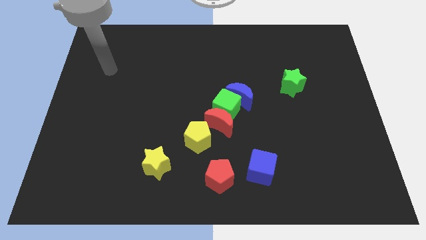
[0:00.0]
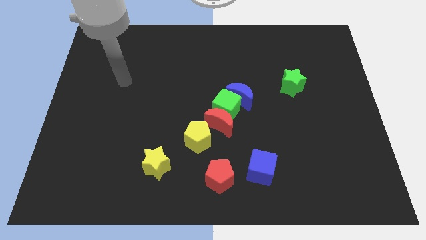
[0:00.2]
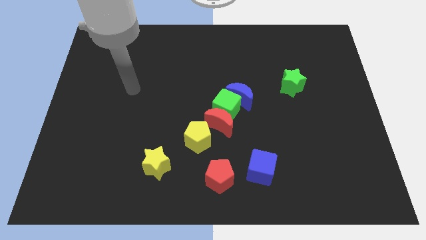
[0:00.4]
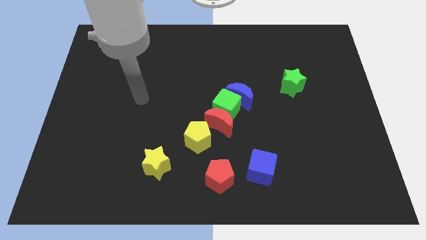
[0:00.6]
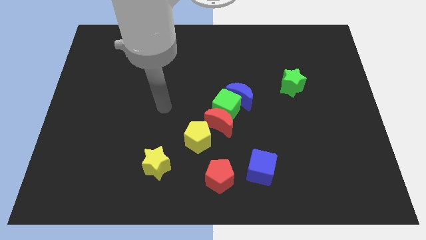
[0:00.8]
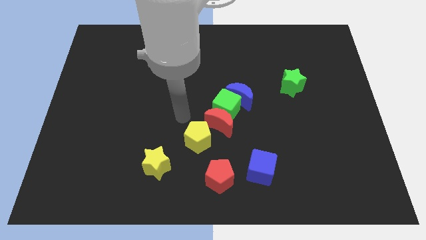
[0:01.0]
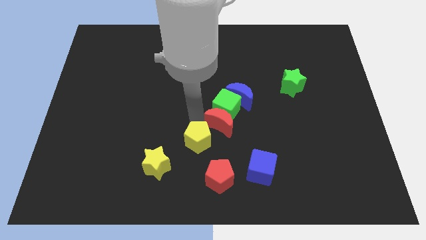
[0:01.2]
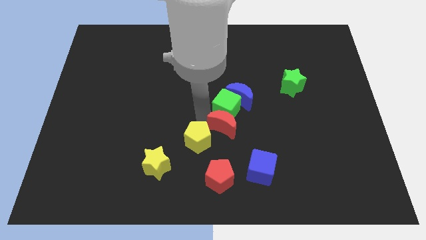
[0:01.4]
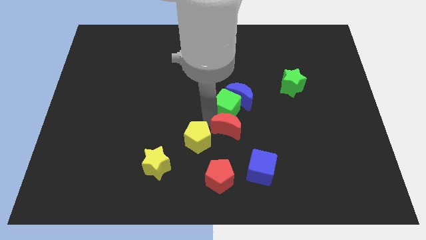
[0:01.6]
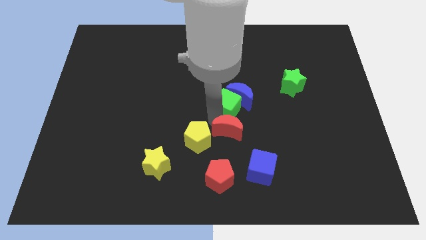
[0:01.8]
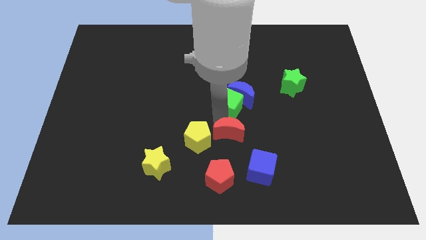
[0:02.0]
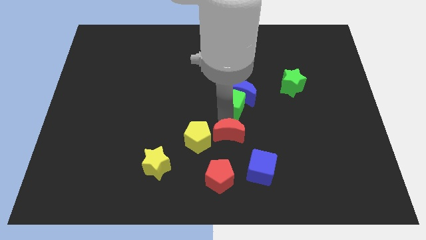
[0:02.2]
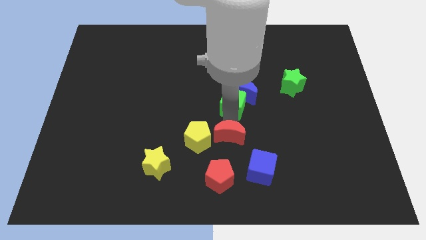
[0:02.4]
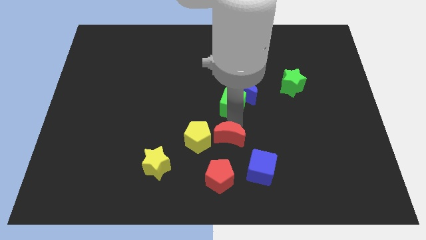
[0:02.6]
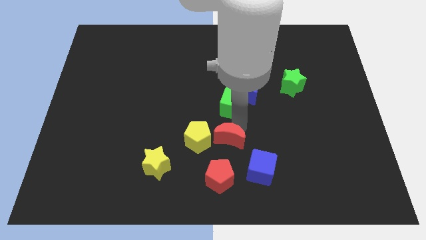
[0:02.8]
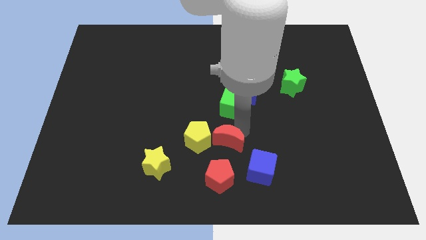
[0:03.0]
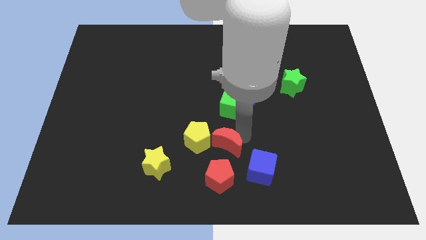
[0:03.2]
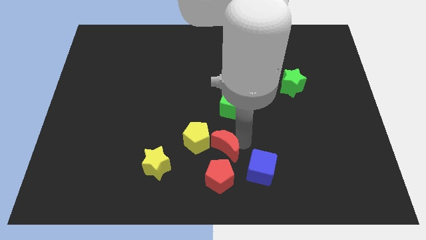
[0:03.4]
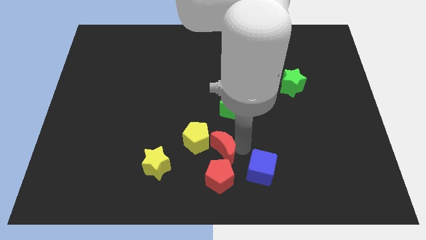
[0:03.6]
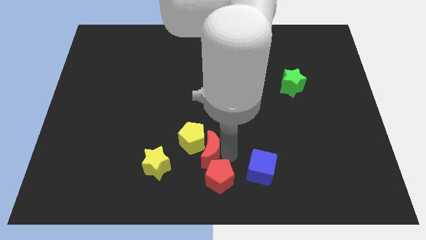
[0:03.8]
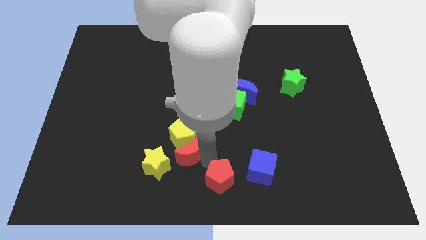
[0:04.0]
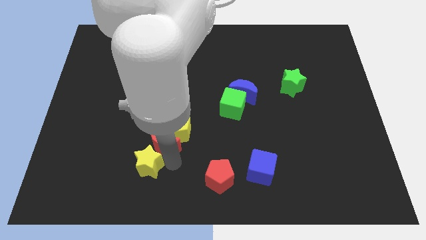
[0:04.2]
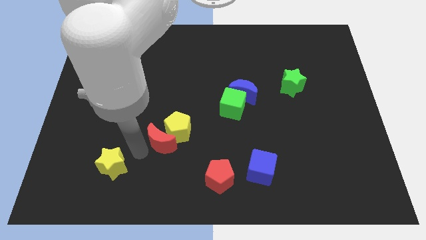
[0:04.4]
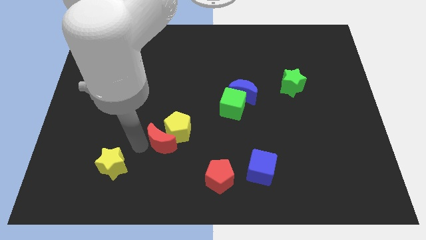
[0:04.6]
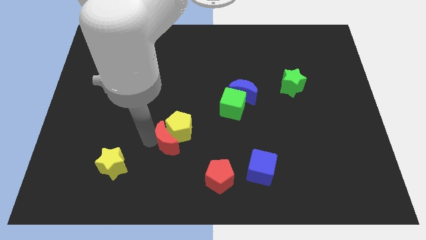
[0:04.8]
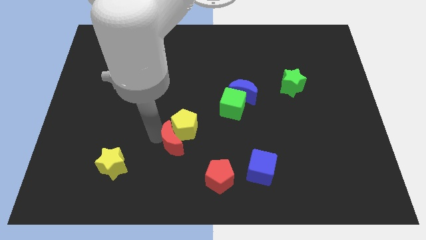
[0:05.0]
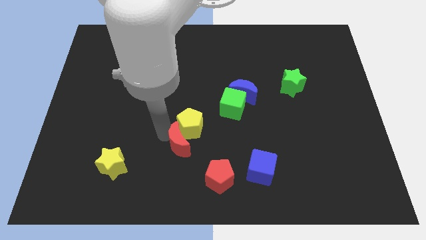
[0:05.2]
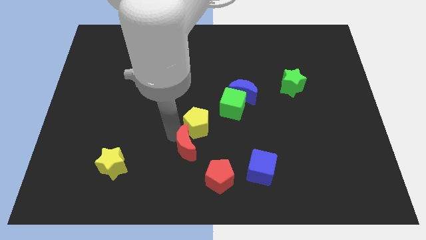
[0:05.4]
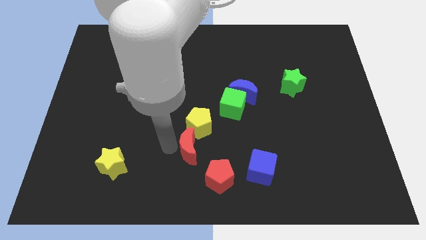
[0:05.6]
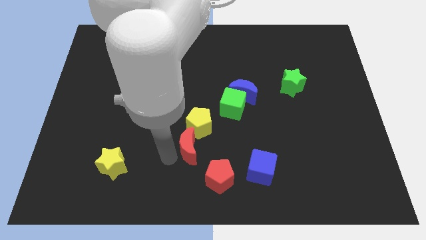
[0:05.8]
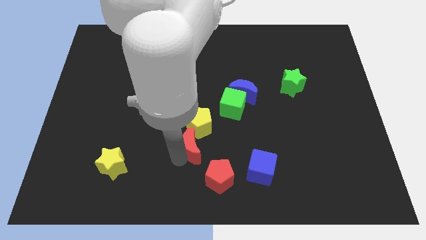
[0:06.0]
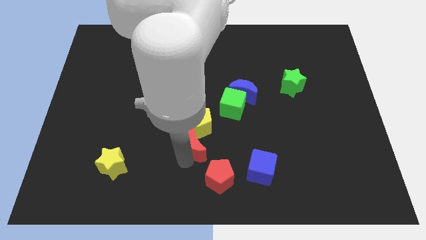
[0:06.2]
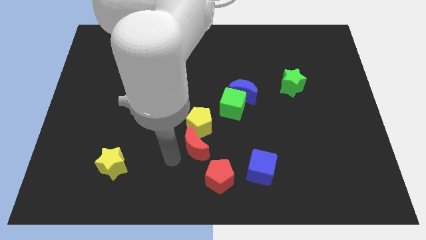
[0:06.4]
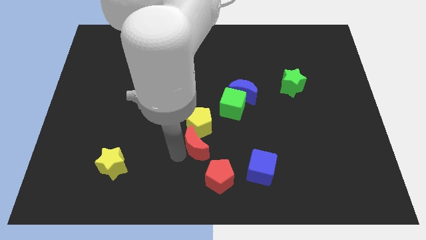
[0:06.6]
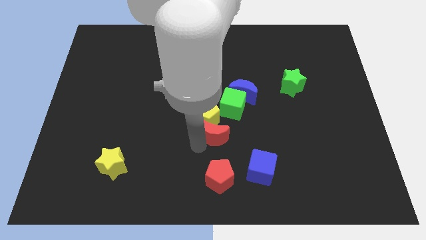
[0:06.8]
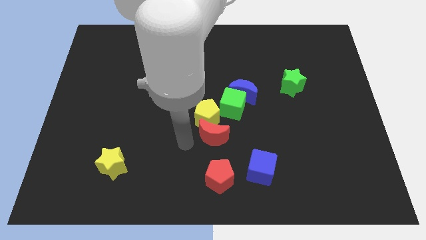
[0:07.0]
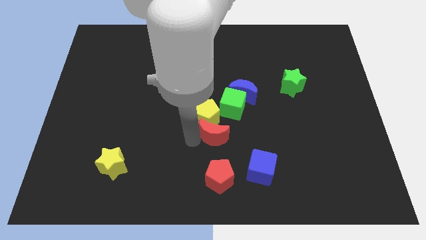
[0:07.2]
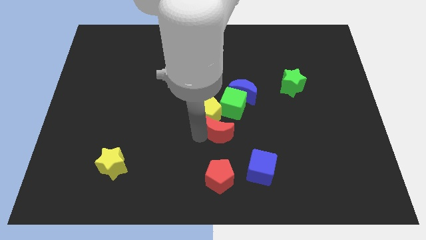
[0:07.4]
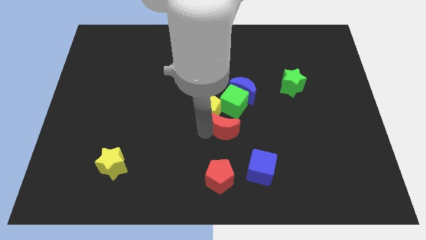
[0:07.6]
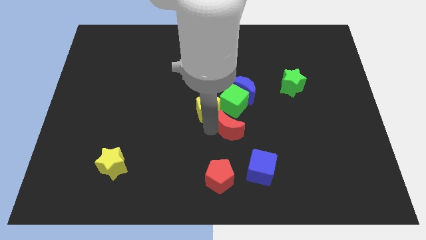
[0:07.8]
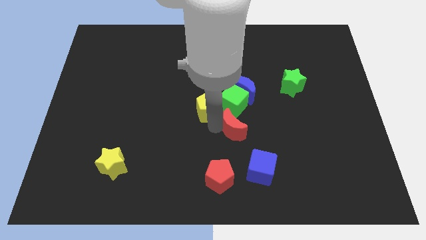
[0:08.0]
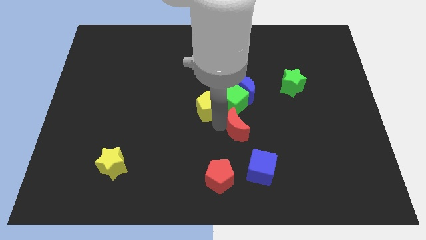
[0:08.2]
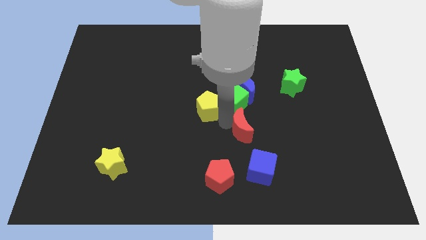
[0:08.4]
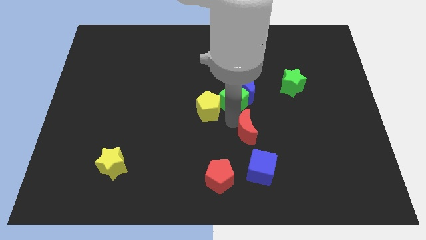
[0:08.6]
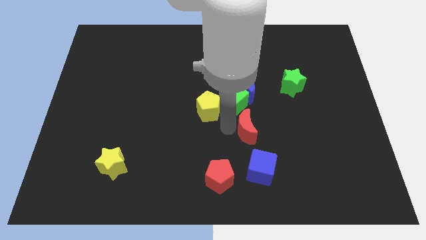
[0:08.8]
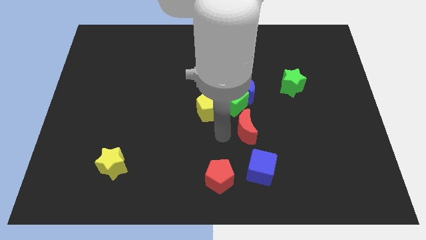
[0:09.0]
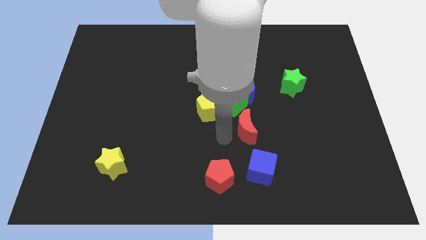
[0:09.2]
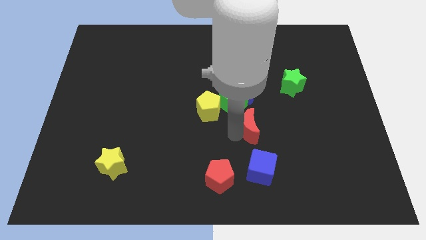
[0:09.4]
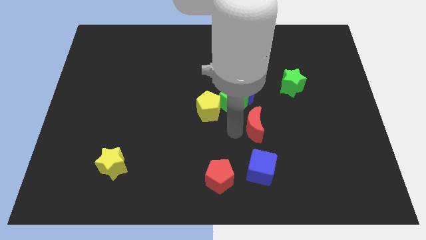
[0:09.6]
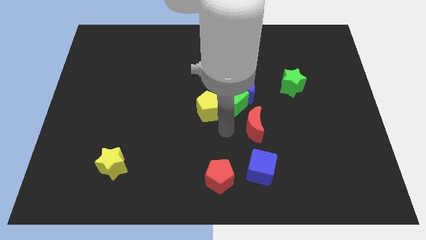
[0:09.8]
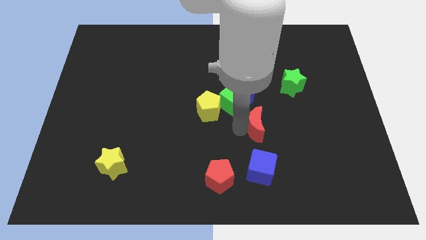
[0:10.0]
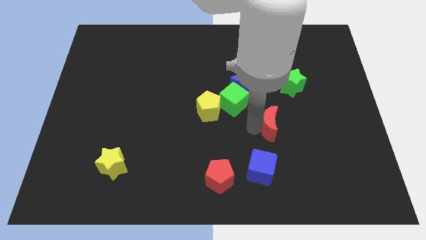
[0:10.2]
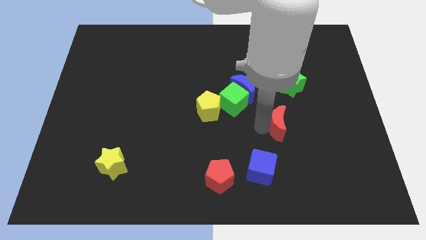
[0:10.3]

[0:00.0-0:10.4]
slide the red moon below the green star

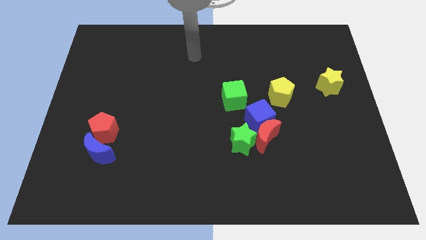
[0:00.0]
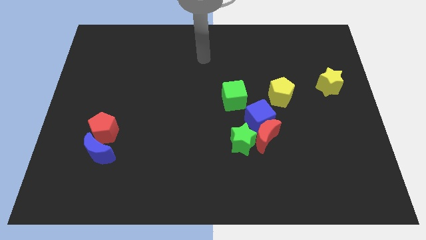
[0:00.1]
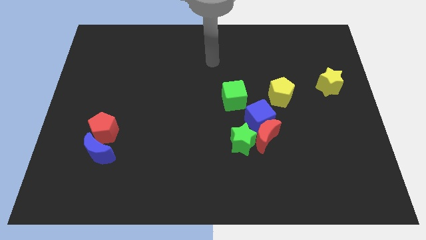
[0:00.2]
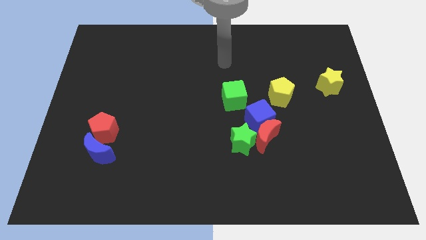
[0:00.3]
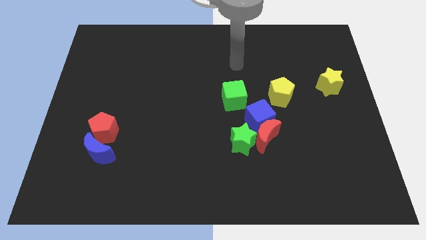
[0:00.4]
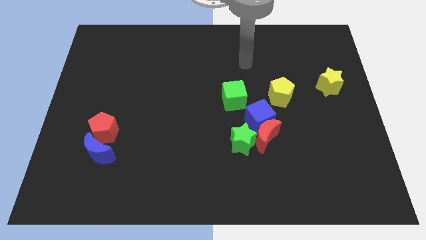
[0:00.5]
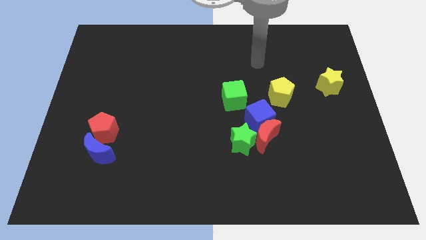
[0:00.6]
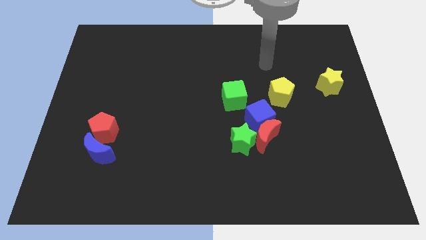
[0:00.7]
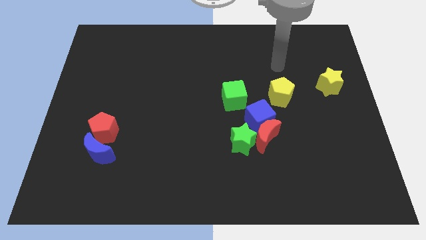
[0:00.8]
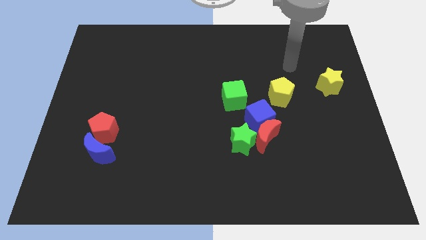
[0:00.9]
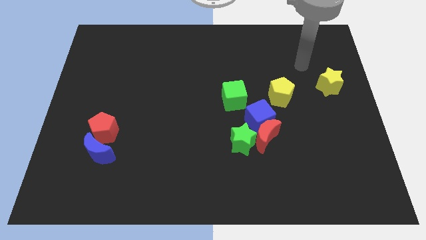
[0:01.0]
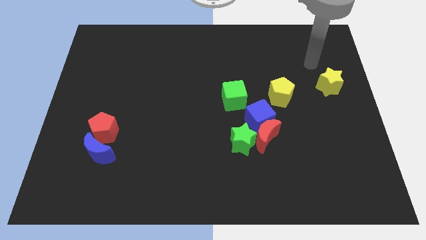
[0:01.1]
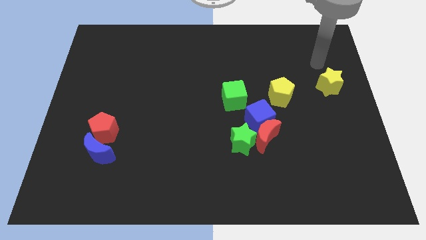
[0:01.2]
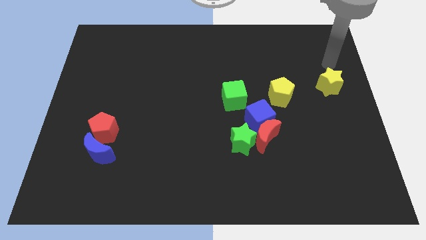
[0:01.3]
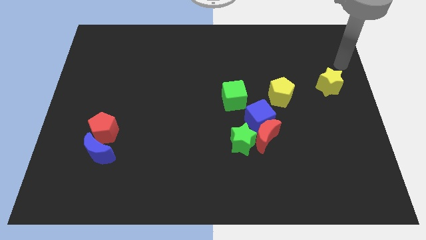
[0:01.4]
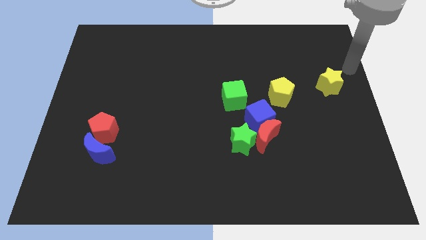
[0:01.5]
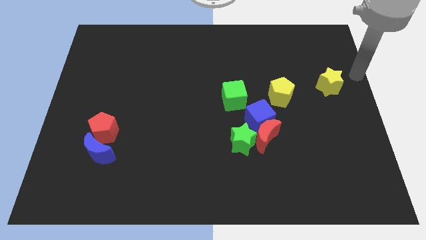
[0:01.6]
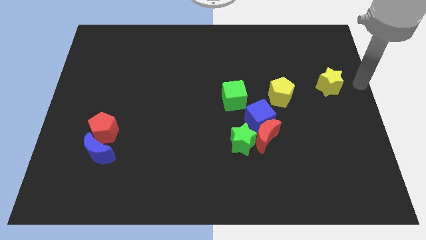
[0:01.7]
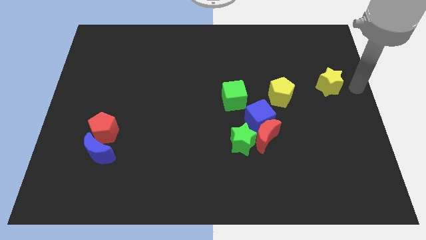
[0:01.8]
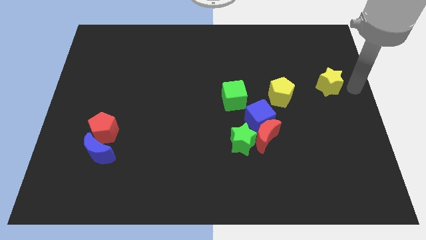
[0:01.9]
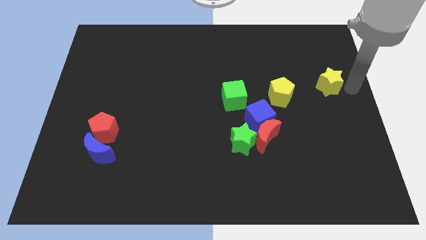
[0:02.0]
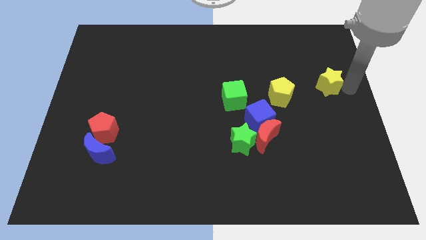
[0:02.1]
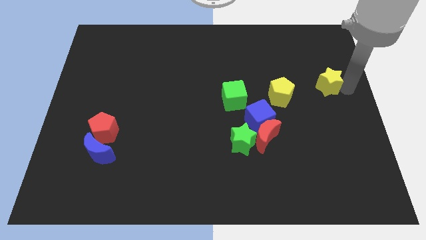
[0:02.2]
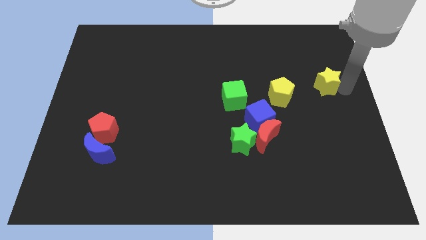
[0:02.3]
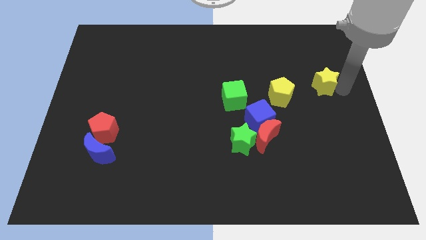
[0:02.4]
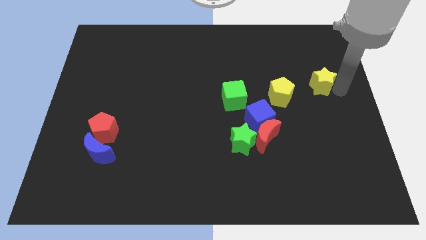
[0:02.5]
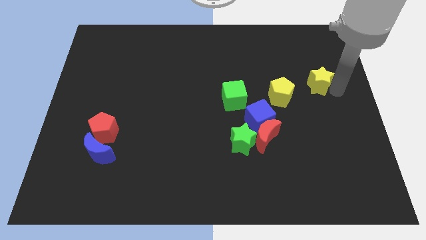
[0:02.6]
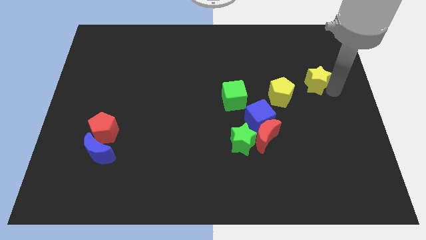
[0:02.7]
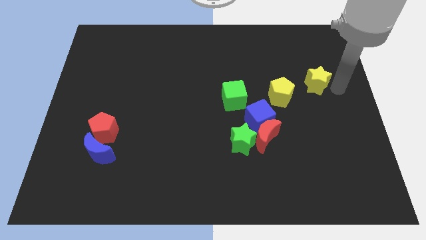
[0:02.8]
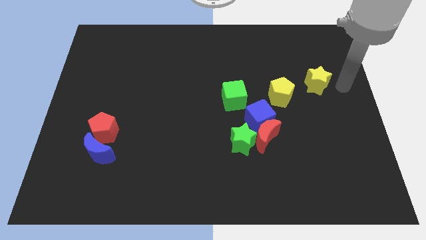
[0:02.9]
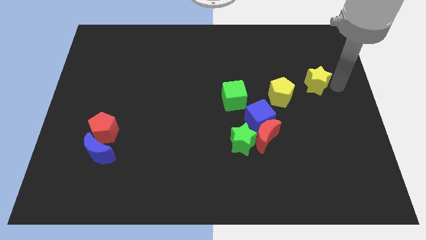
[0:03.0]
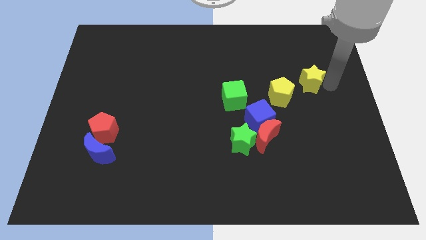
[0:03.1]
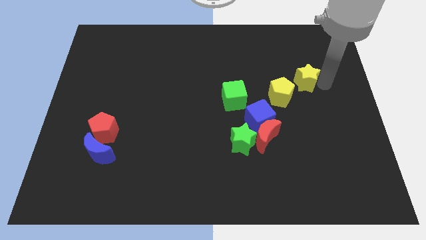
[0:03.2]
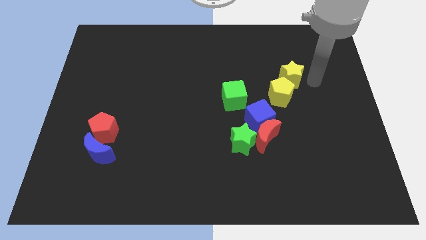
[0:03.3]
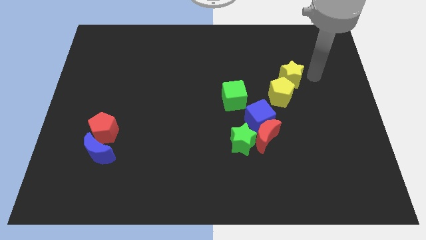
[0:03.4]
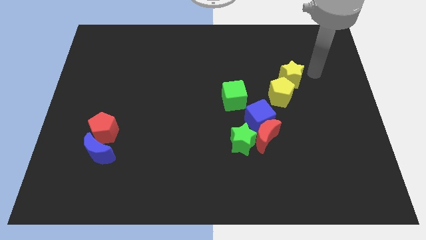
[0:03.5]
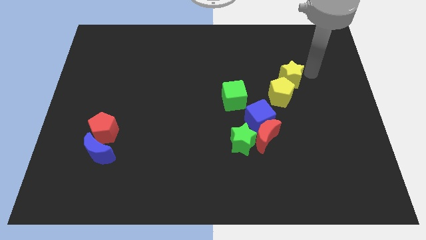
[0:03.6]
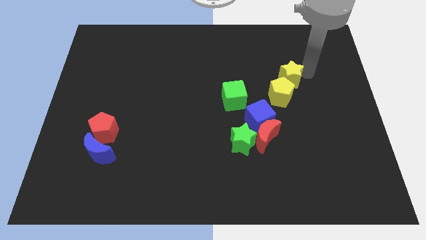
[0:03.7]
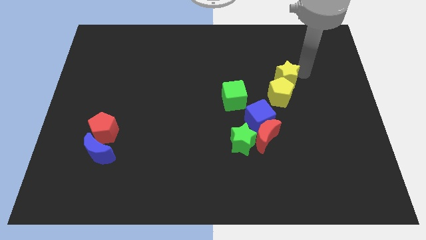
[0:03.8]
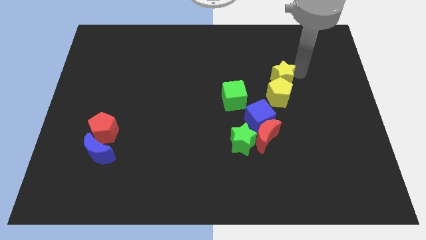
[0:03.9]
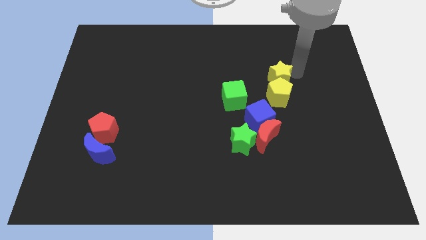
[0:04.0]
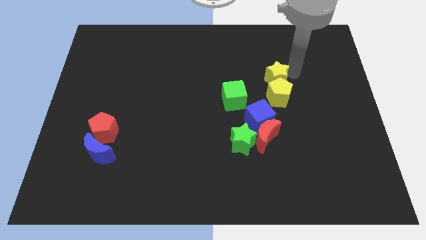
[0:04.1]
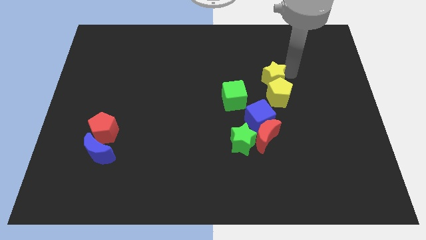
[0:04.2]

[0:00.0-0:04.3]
put the yellow star to the top side of the blue cube
